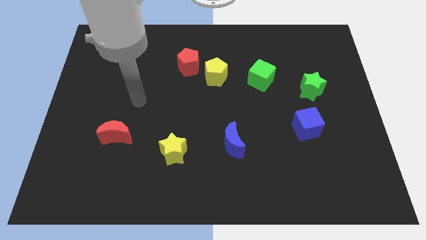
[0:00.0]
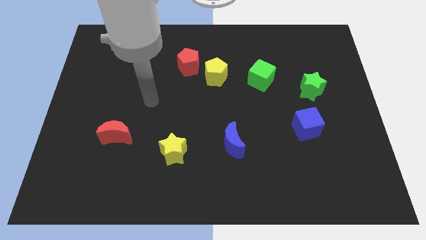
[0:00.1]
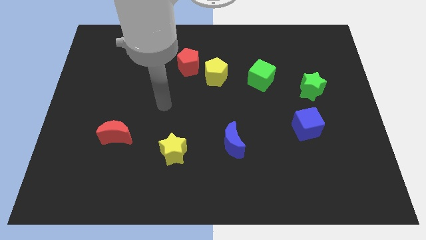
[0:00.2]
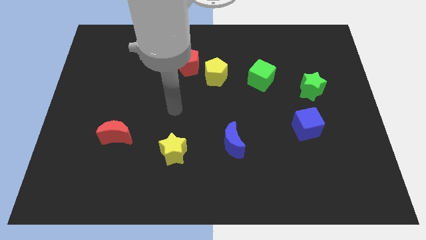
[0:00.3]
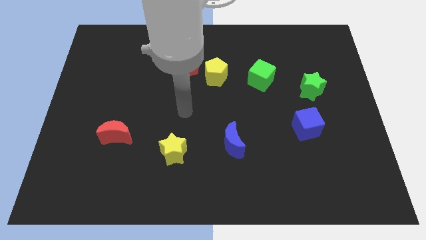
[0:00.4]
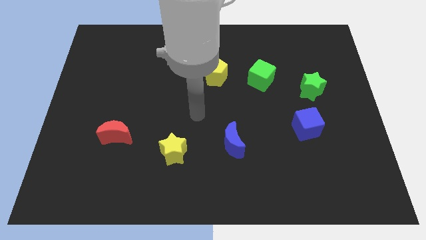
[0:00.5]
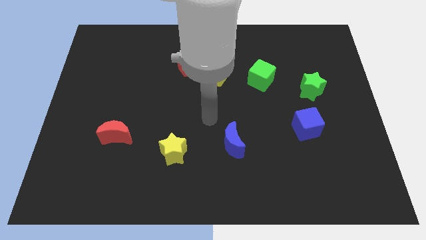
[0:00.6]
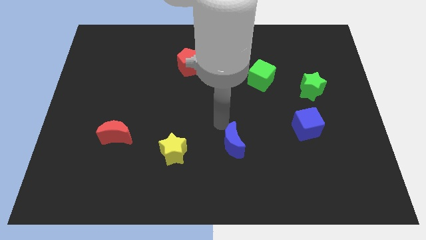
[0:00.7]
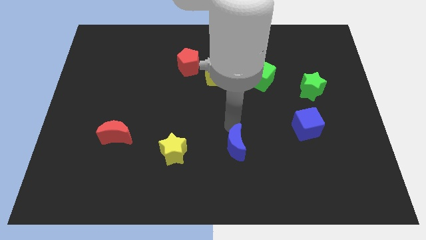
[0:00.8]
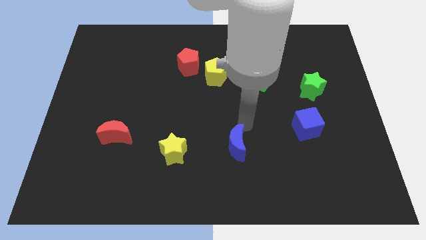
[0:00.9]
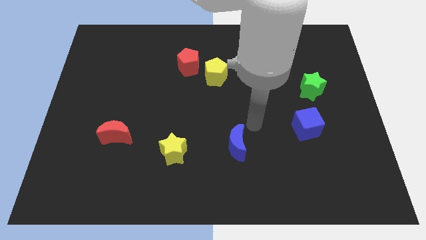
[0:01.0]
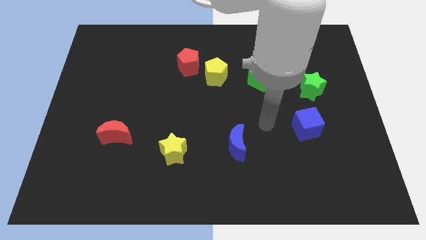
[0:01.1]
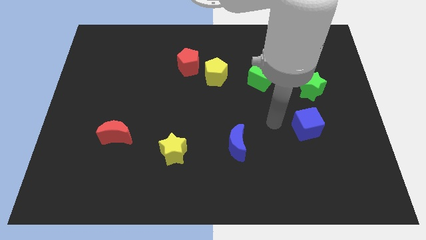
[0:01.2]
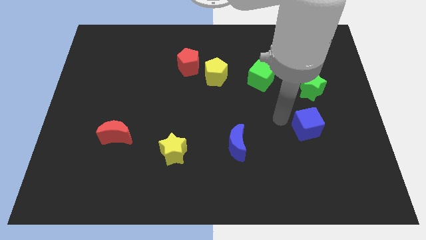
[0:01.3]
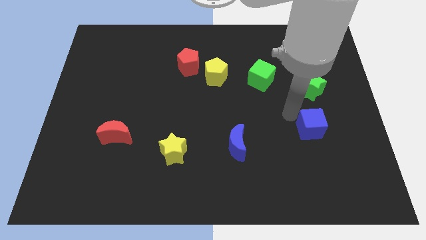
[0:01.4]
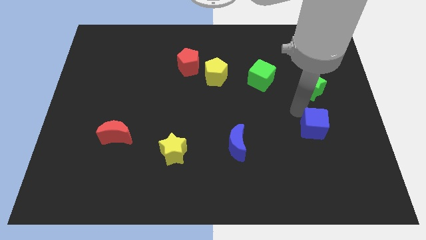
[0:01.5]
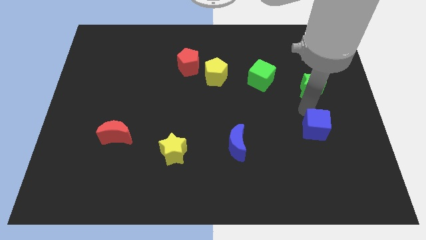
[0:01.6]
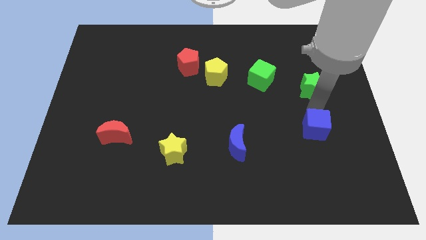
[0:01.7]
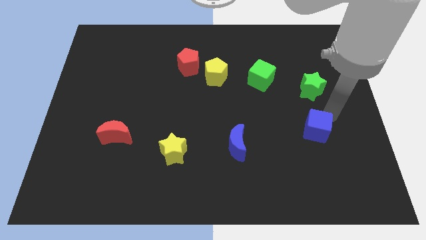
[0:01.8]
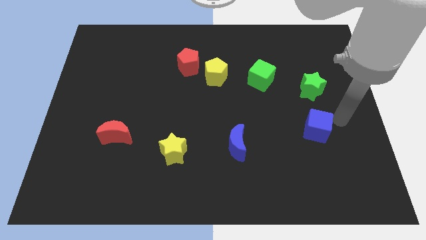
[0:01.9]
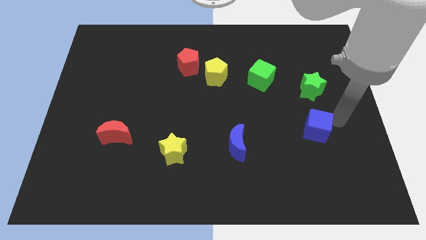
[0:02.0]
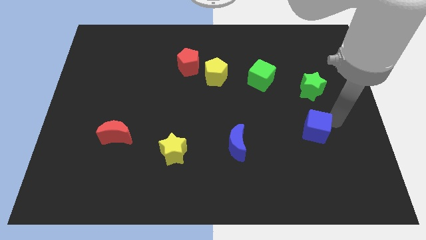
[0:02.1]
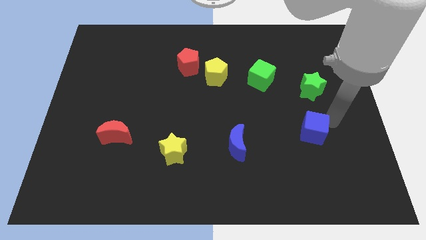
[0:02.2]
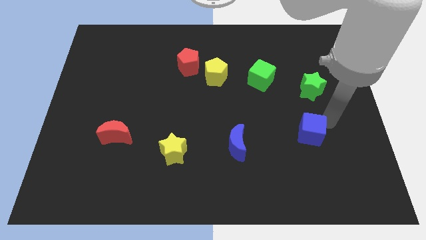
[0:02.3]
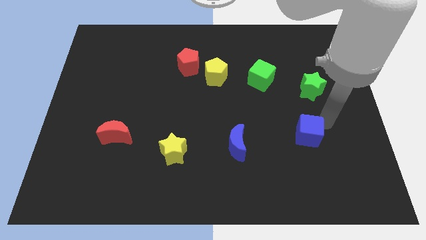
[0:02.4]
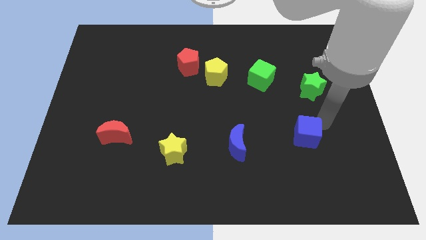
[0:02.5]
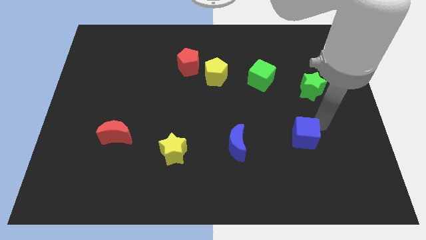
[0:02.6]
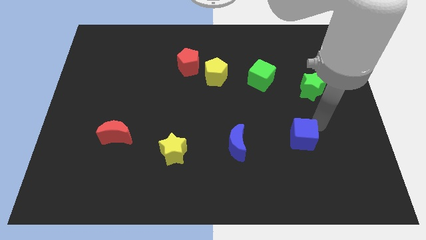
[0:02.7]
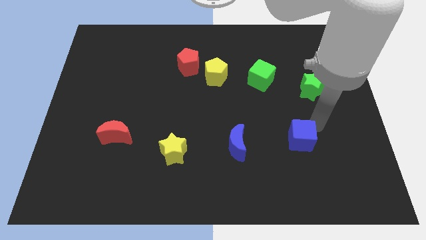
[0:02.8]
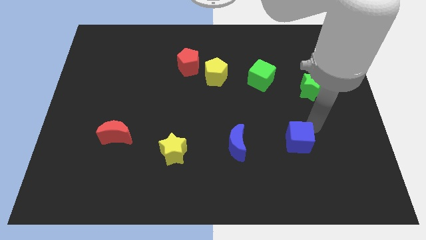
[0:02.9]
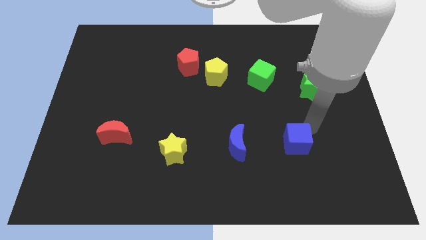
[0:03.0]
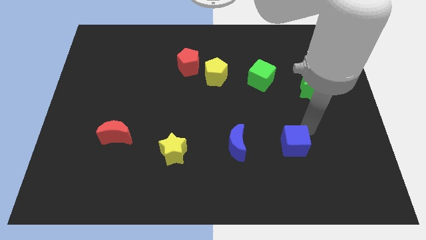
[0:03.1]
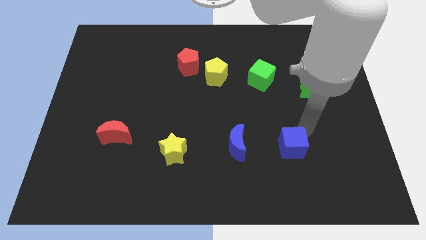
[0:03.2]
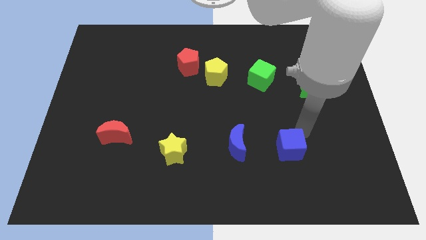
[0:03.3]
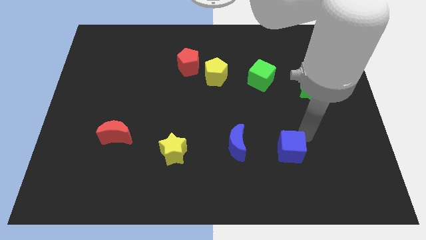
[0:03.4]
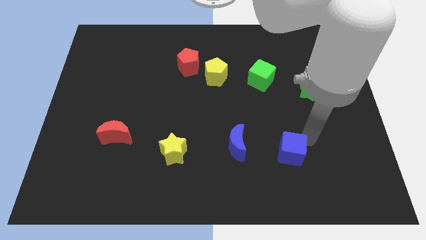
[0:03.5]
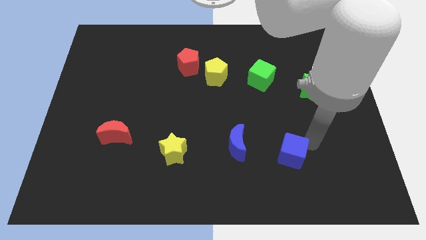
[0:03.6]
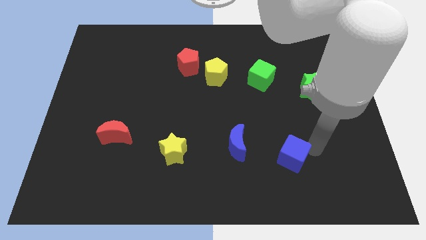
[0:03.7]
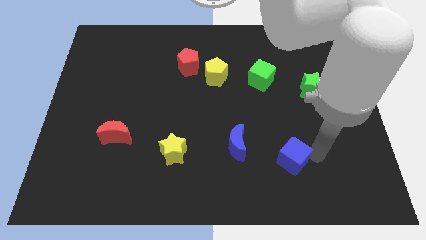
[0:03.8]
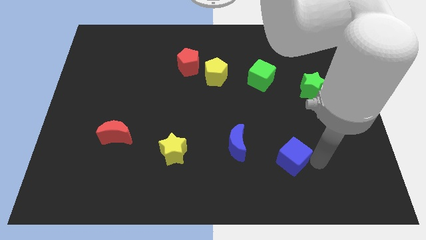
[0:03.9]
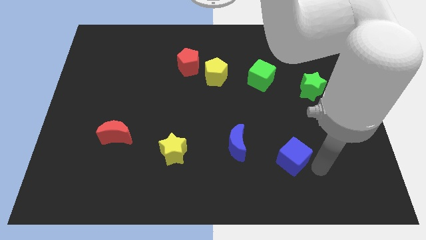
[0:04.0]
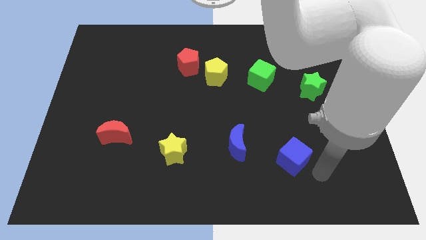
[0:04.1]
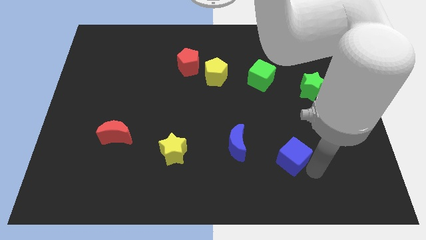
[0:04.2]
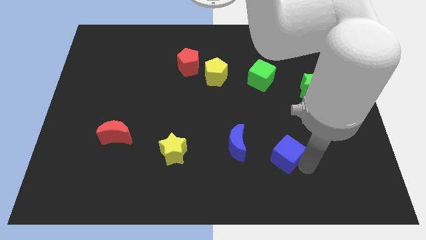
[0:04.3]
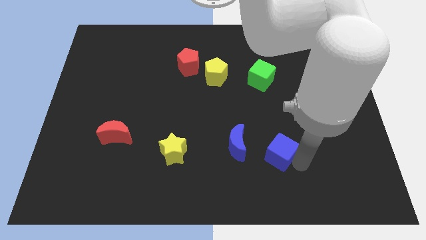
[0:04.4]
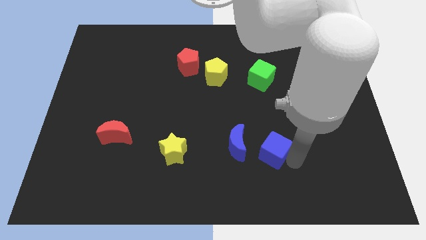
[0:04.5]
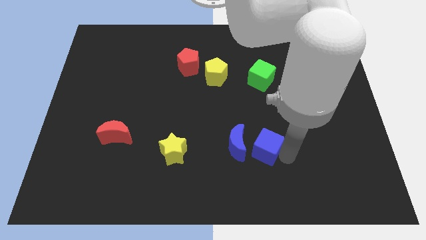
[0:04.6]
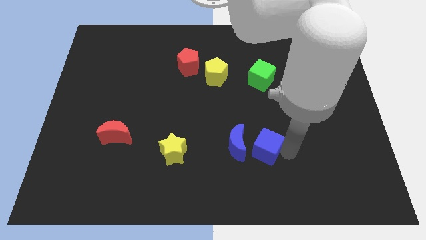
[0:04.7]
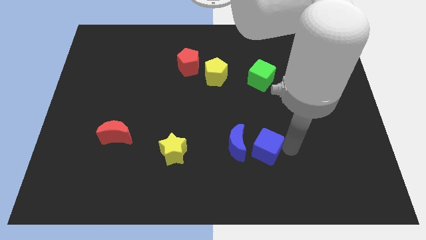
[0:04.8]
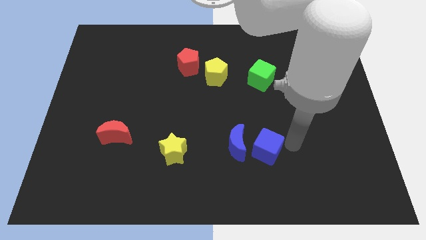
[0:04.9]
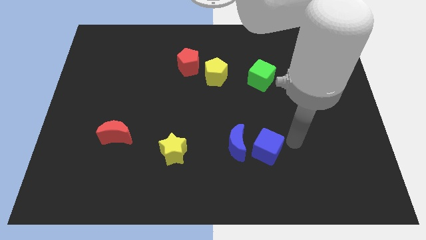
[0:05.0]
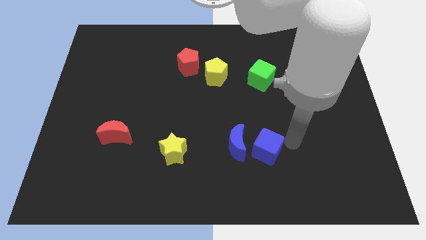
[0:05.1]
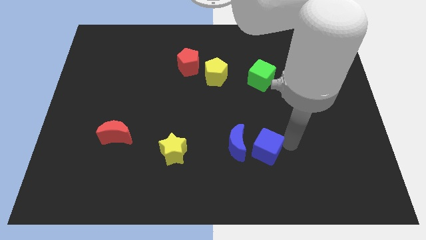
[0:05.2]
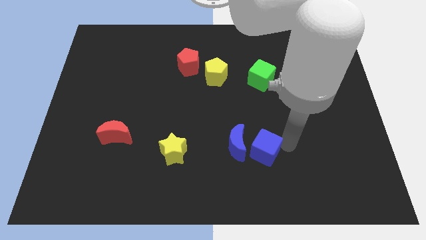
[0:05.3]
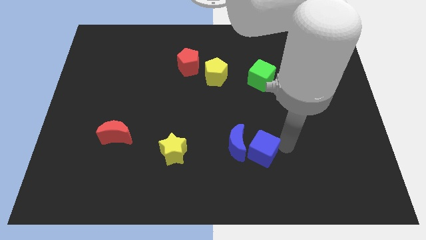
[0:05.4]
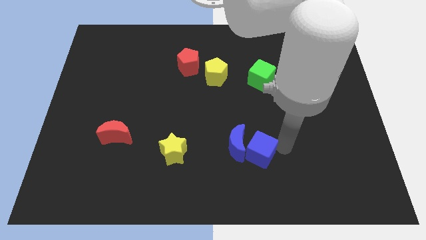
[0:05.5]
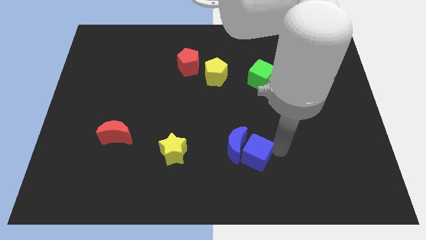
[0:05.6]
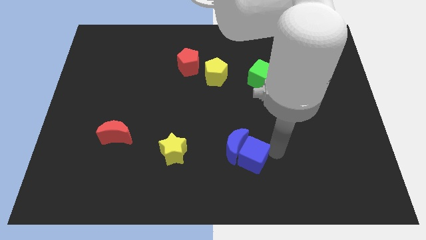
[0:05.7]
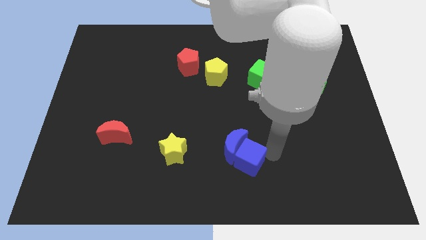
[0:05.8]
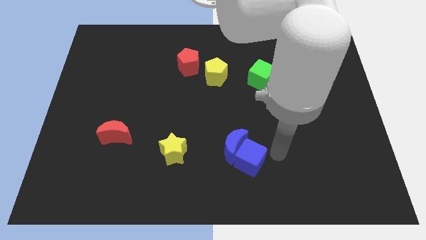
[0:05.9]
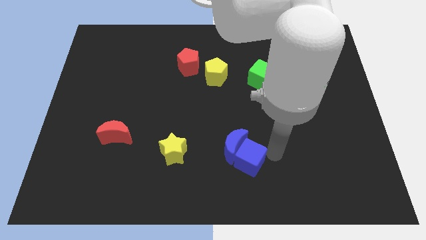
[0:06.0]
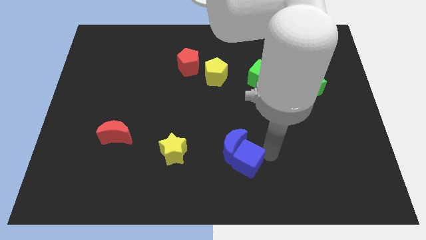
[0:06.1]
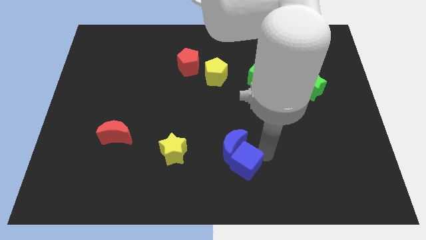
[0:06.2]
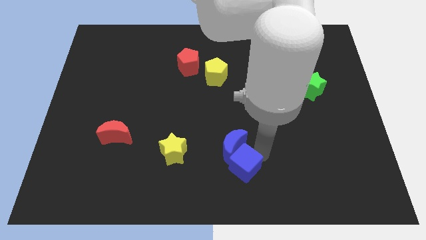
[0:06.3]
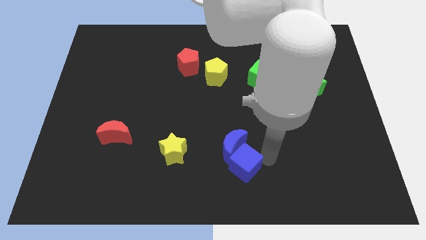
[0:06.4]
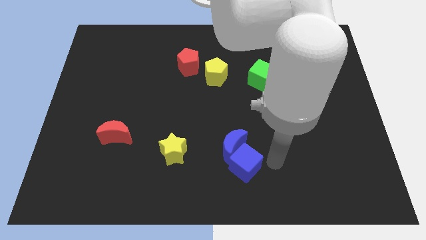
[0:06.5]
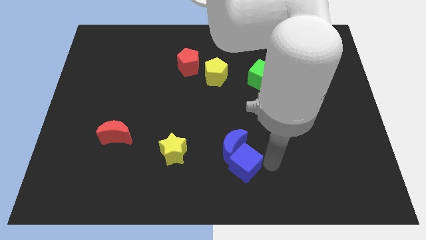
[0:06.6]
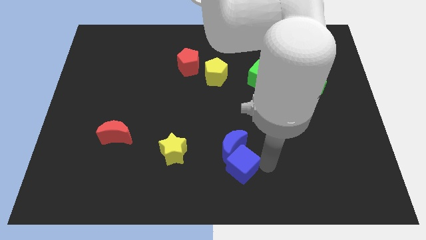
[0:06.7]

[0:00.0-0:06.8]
move the blue cube to the bottom left side of the blue moon

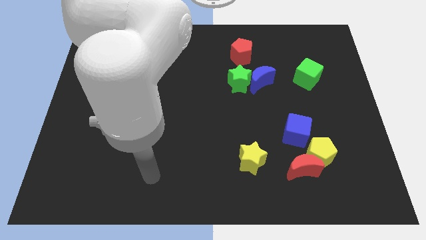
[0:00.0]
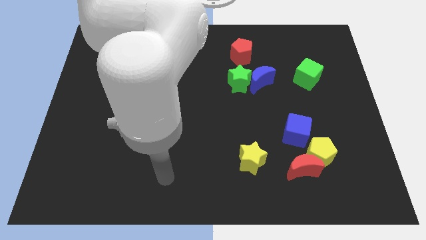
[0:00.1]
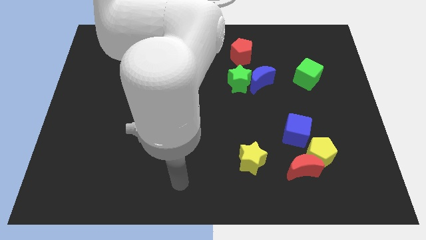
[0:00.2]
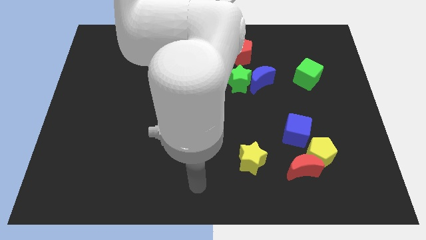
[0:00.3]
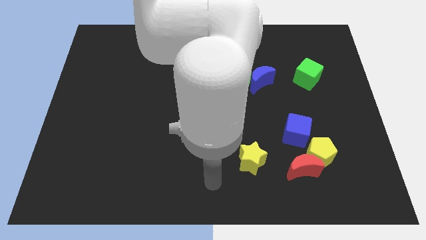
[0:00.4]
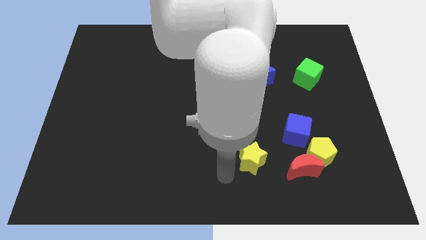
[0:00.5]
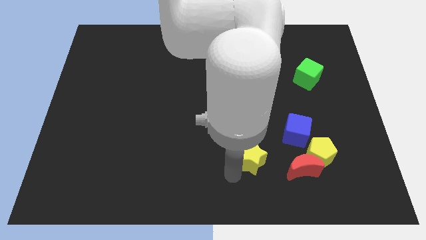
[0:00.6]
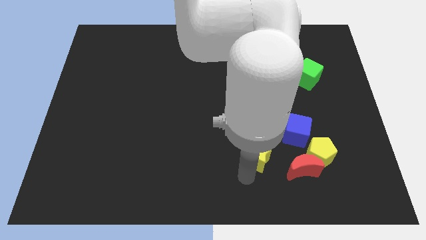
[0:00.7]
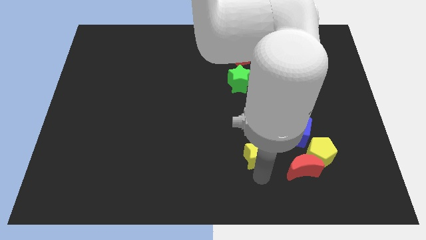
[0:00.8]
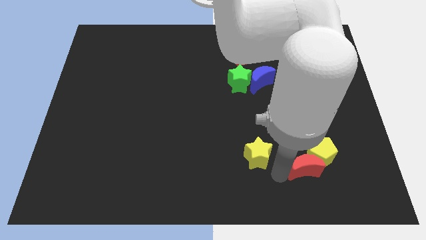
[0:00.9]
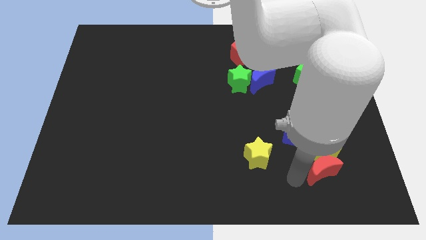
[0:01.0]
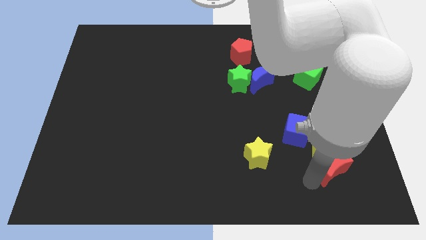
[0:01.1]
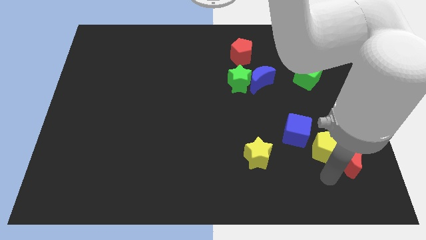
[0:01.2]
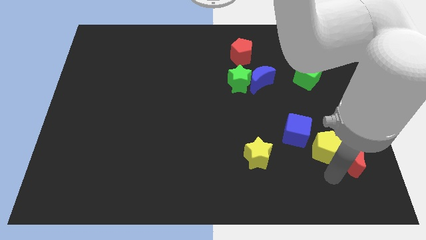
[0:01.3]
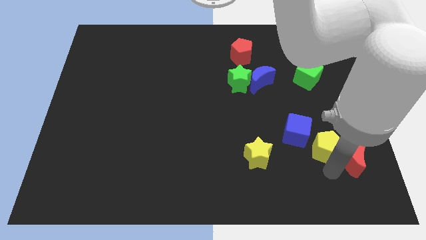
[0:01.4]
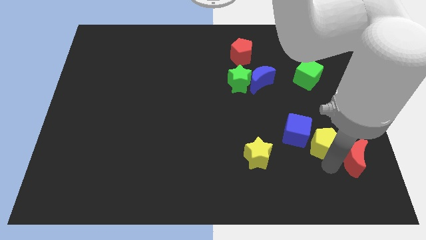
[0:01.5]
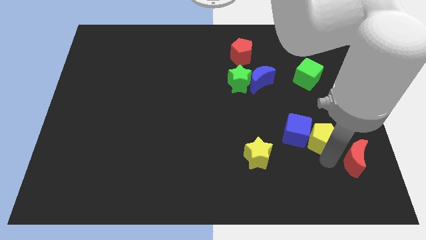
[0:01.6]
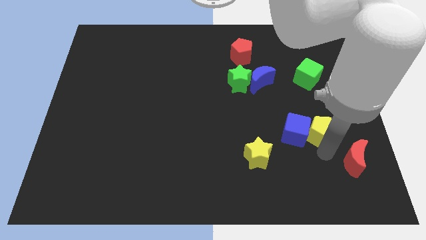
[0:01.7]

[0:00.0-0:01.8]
put the yellow pentagon to the top right of the blue cube
